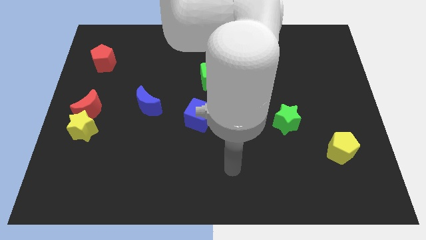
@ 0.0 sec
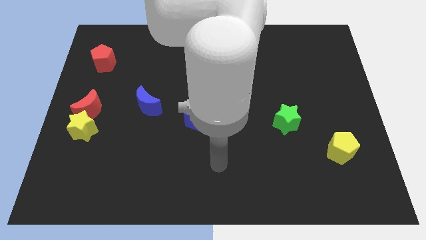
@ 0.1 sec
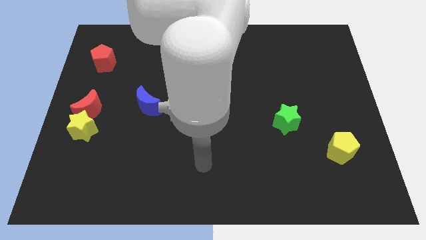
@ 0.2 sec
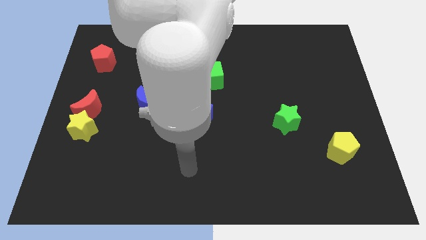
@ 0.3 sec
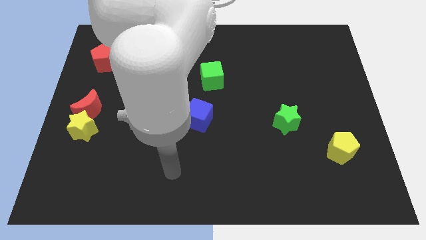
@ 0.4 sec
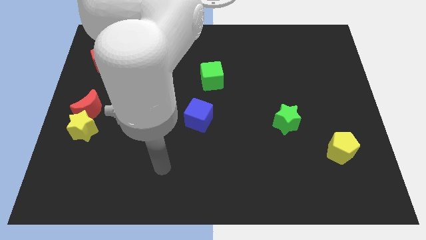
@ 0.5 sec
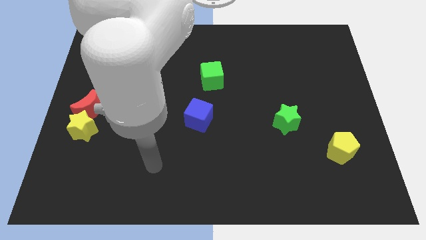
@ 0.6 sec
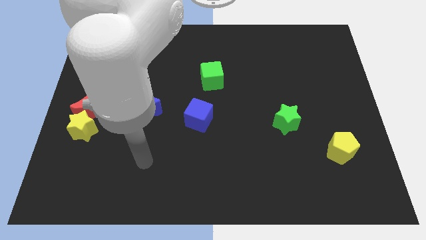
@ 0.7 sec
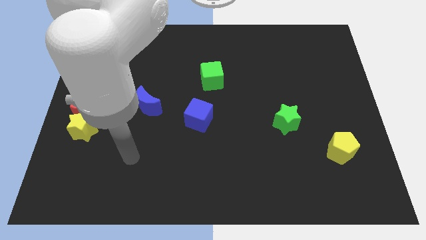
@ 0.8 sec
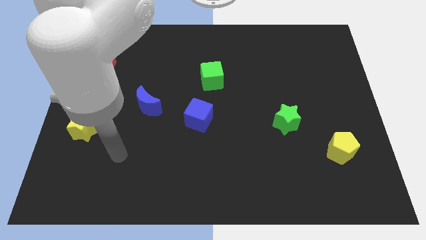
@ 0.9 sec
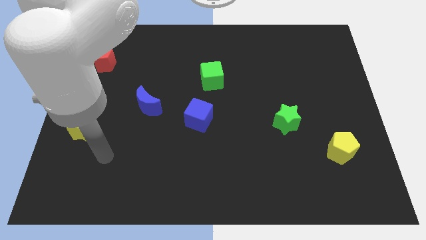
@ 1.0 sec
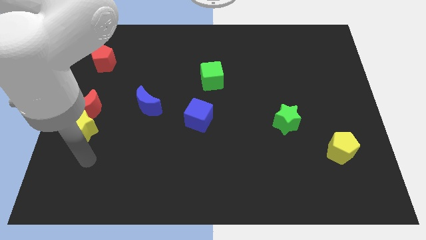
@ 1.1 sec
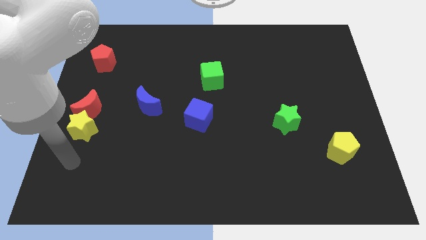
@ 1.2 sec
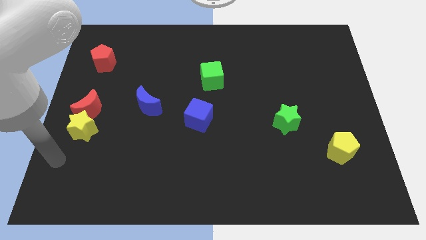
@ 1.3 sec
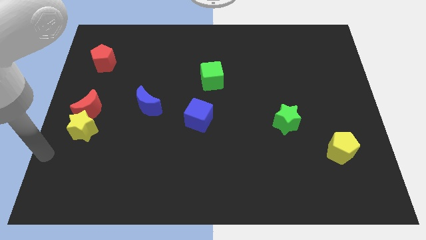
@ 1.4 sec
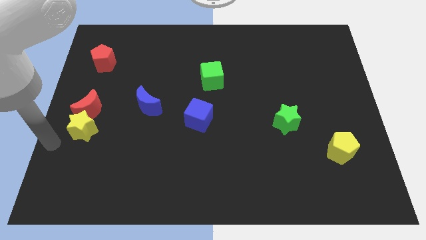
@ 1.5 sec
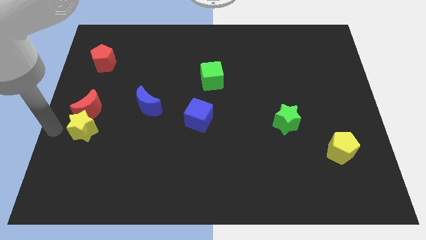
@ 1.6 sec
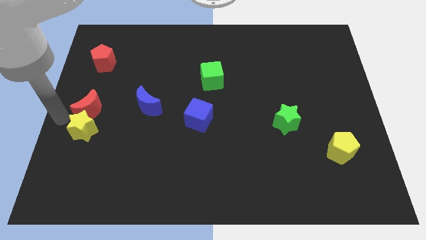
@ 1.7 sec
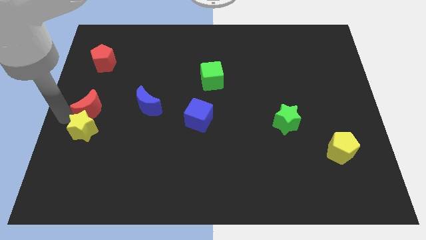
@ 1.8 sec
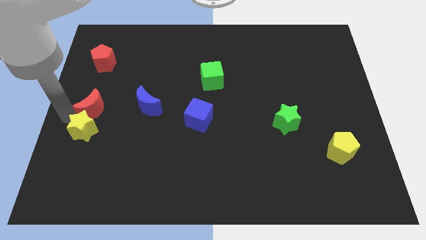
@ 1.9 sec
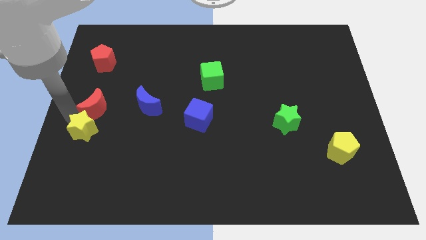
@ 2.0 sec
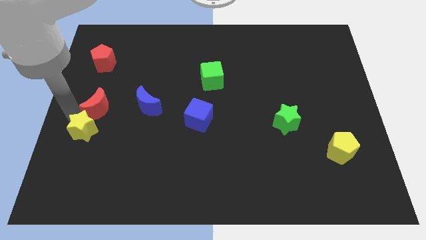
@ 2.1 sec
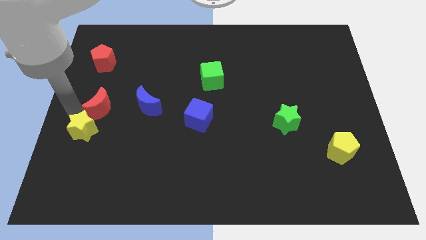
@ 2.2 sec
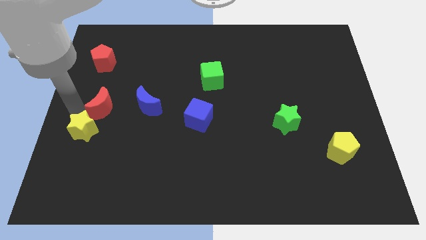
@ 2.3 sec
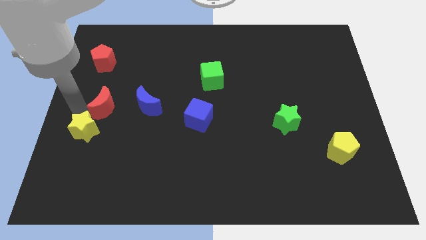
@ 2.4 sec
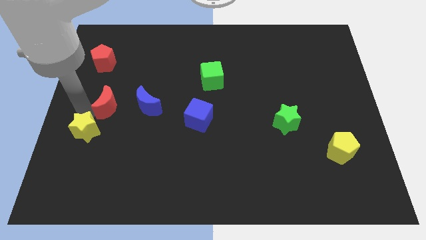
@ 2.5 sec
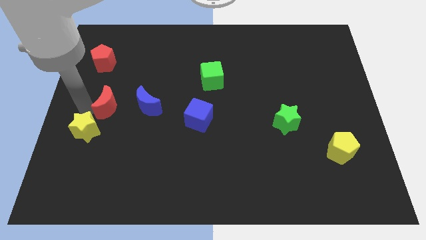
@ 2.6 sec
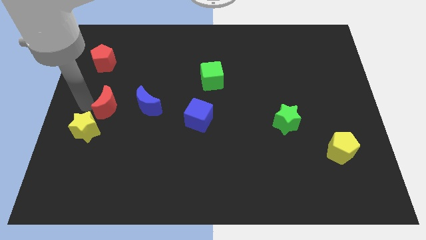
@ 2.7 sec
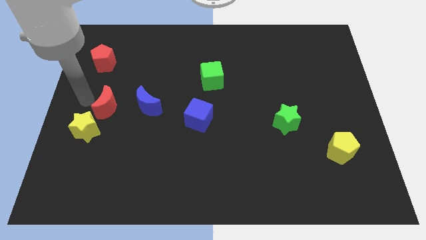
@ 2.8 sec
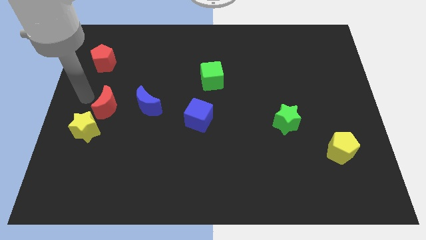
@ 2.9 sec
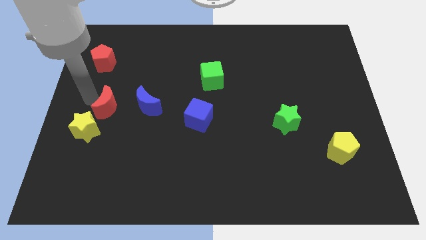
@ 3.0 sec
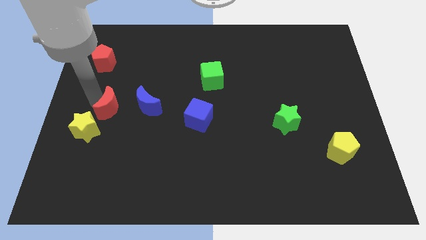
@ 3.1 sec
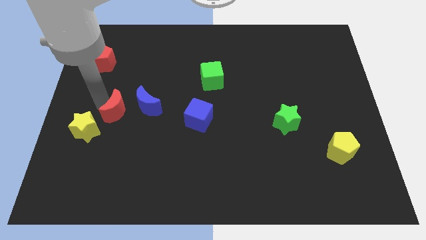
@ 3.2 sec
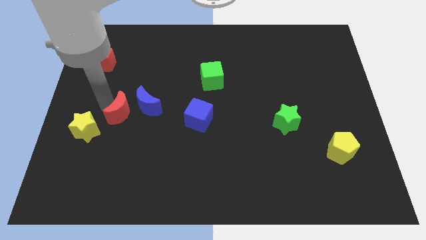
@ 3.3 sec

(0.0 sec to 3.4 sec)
move the red moon a bit right

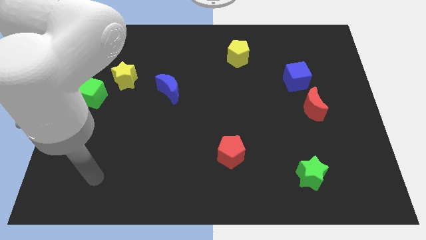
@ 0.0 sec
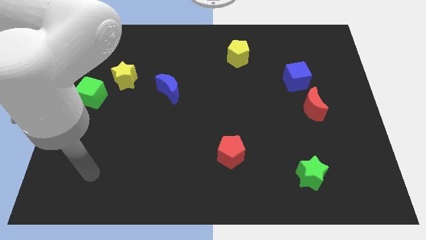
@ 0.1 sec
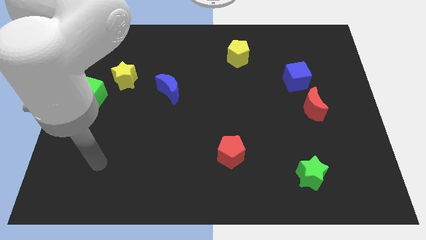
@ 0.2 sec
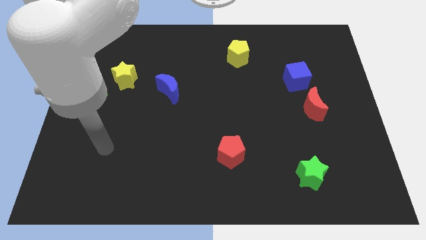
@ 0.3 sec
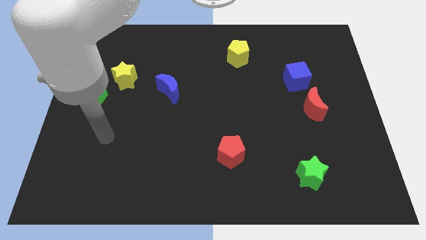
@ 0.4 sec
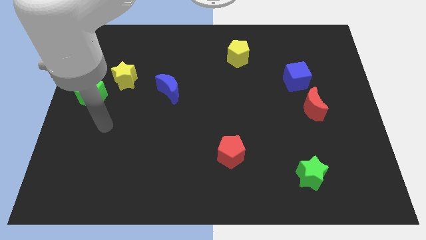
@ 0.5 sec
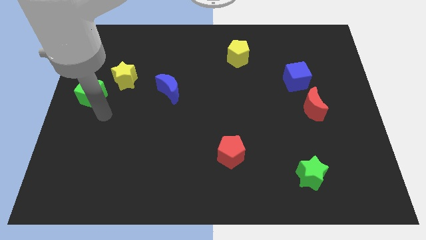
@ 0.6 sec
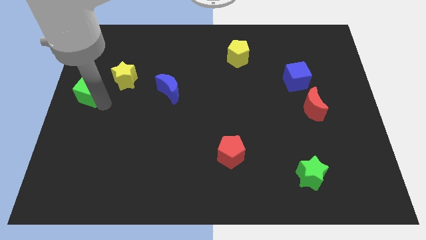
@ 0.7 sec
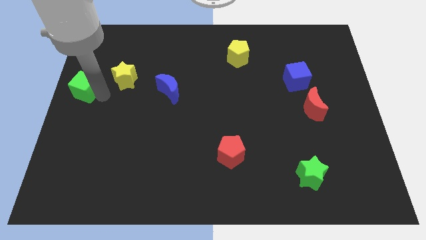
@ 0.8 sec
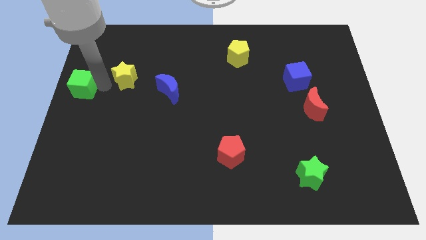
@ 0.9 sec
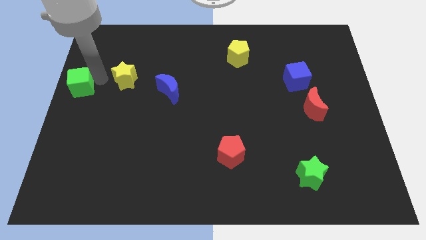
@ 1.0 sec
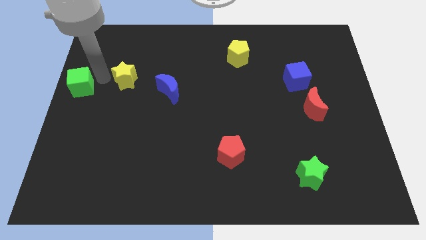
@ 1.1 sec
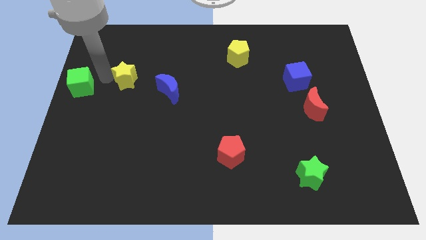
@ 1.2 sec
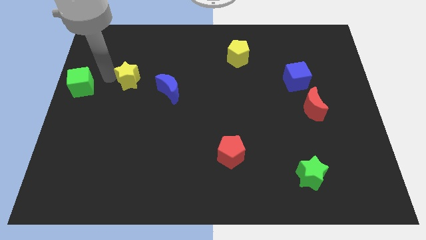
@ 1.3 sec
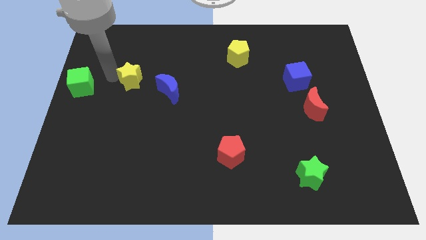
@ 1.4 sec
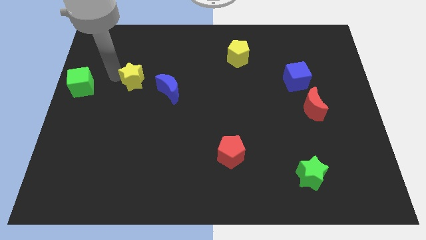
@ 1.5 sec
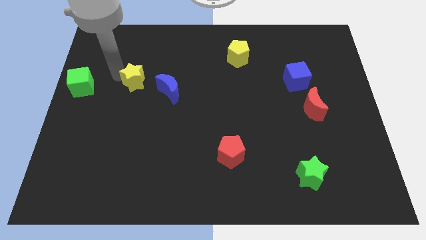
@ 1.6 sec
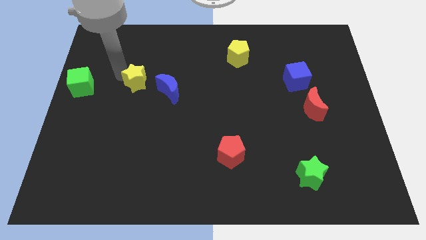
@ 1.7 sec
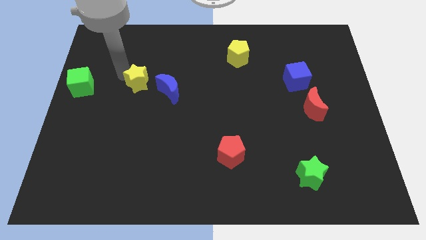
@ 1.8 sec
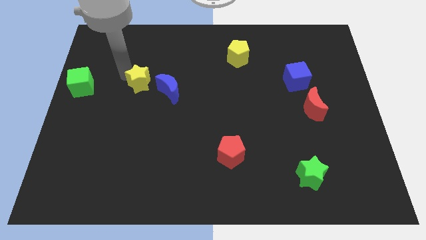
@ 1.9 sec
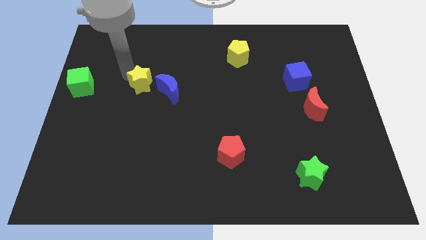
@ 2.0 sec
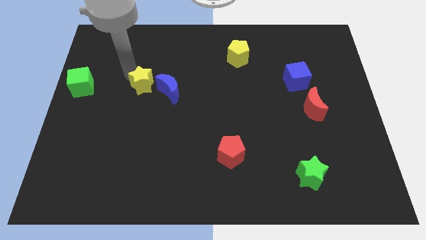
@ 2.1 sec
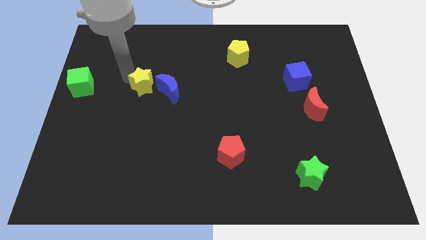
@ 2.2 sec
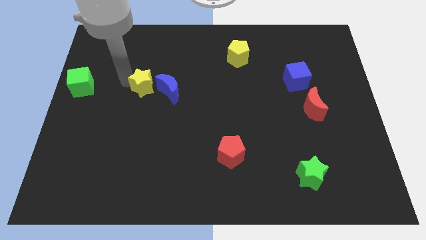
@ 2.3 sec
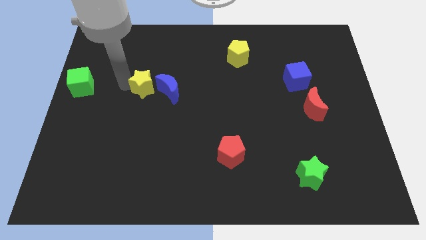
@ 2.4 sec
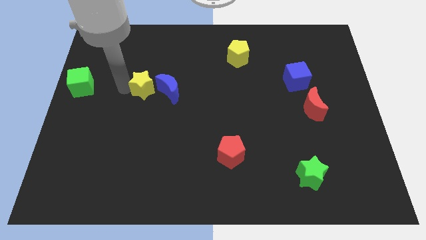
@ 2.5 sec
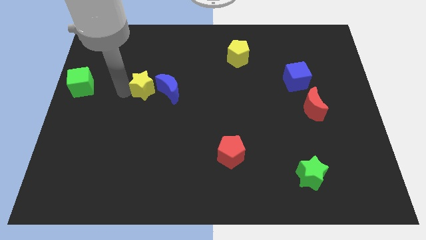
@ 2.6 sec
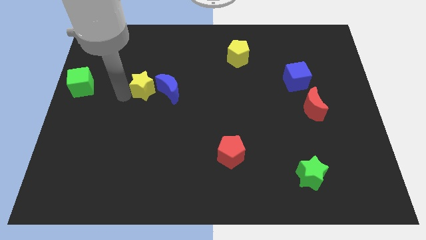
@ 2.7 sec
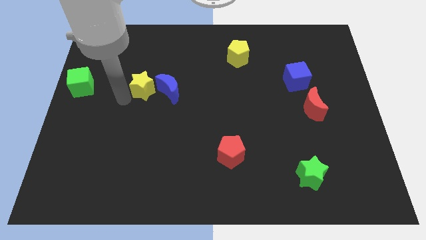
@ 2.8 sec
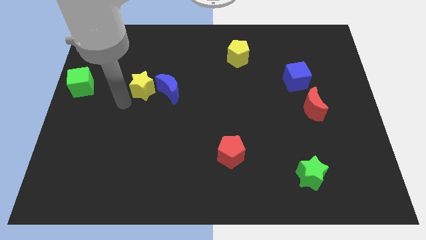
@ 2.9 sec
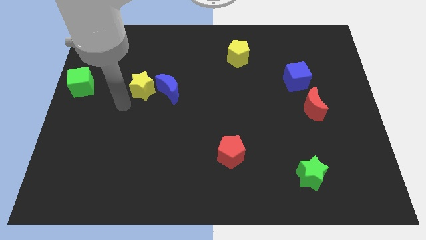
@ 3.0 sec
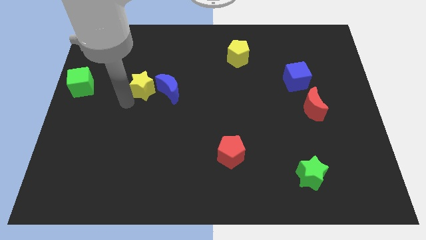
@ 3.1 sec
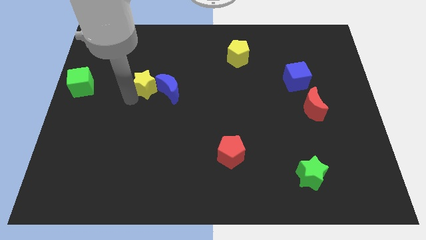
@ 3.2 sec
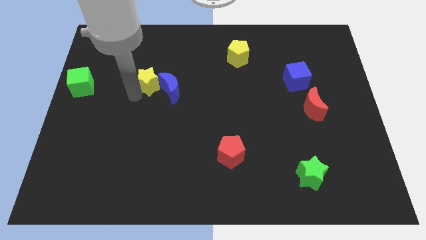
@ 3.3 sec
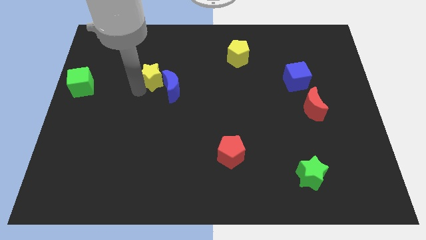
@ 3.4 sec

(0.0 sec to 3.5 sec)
slide the yellow star to the right a bit

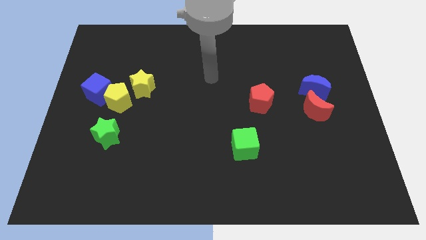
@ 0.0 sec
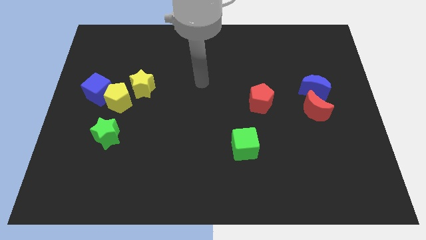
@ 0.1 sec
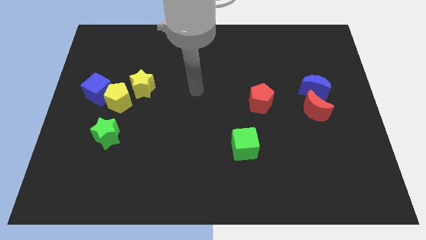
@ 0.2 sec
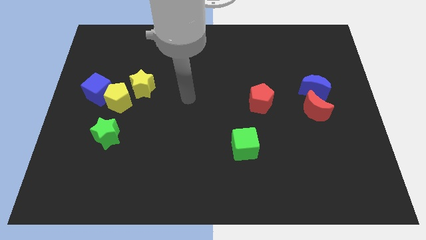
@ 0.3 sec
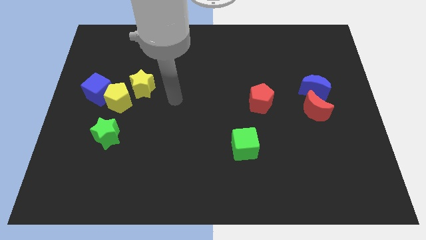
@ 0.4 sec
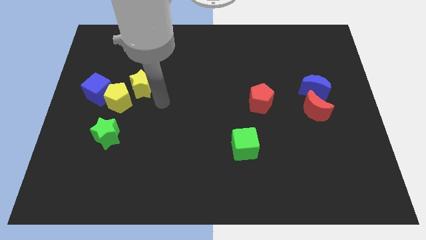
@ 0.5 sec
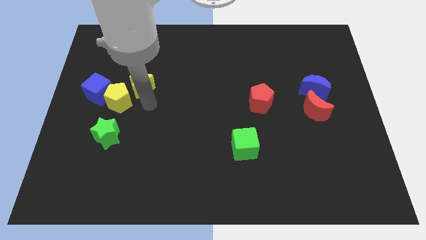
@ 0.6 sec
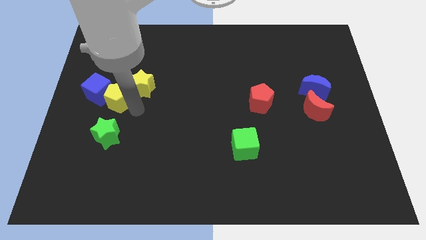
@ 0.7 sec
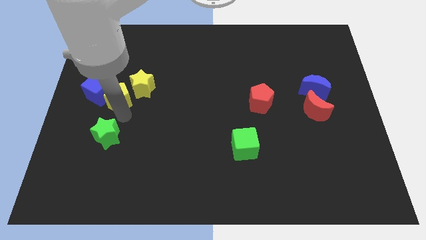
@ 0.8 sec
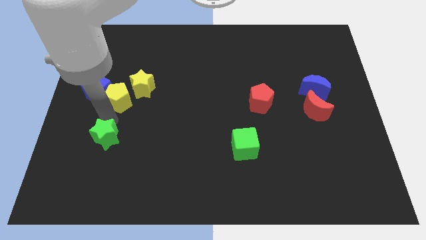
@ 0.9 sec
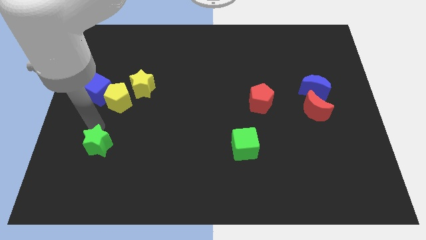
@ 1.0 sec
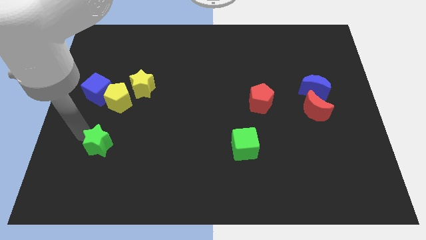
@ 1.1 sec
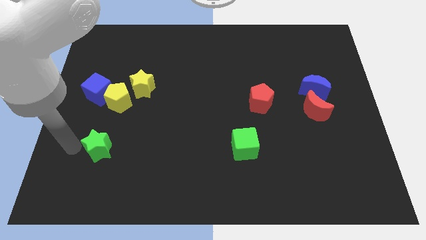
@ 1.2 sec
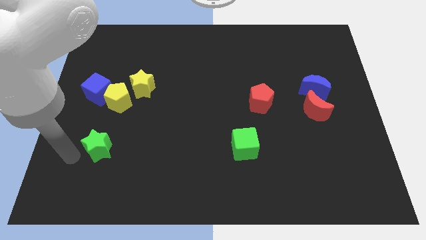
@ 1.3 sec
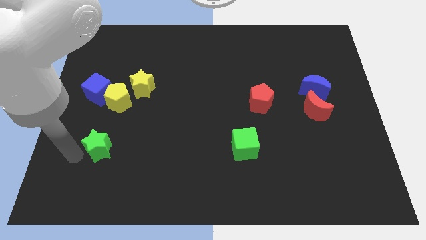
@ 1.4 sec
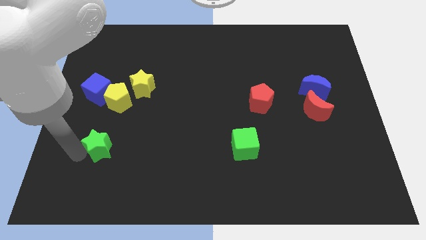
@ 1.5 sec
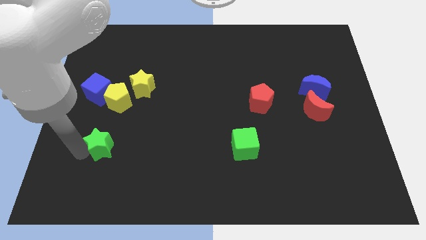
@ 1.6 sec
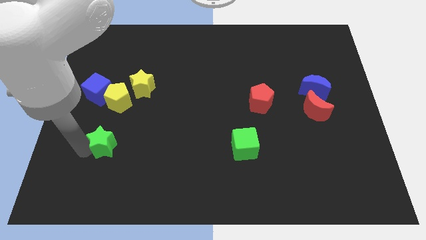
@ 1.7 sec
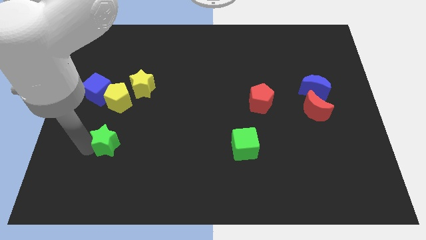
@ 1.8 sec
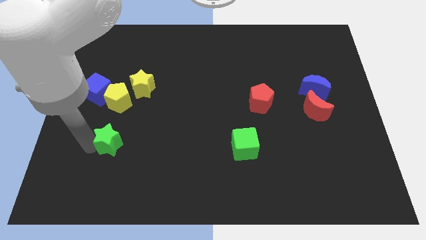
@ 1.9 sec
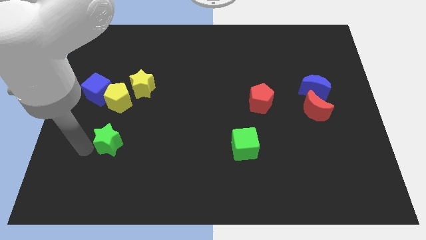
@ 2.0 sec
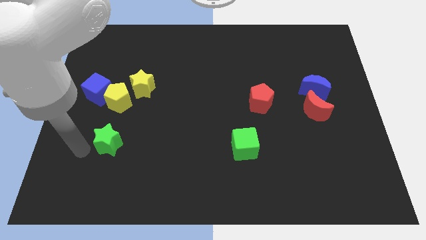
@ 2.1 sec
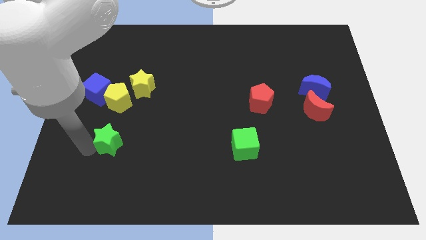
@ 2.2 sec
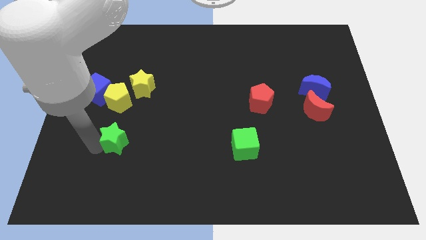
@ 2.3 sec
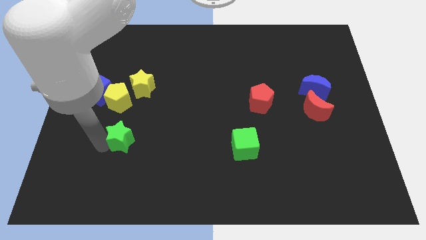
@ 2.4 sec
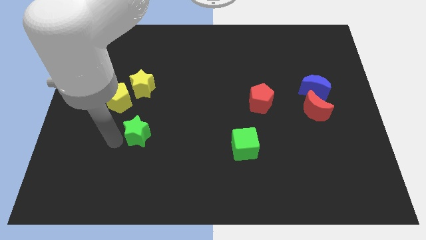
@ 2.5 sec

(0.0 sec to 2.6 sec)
slide the green star a bit to the right
